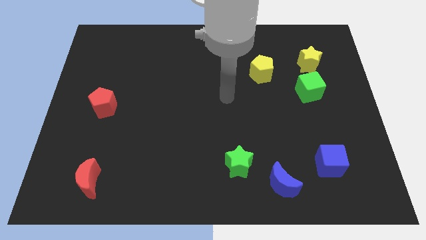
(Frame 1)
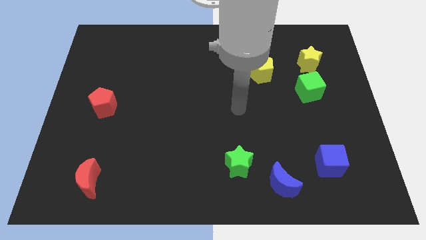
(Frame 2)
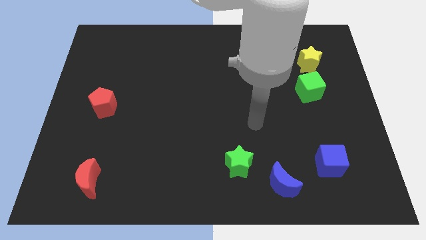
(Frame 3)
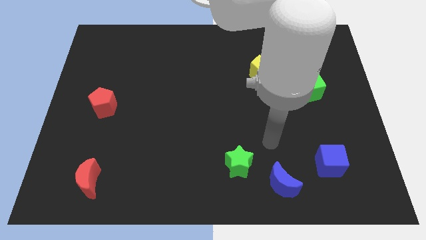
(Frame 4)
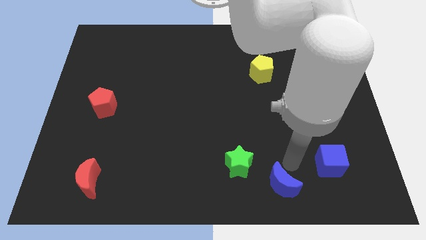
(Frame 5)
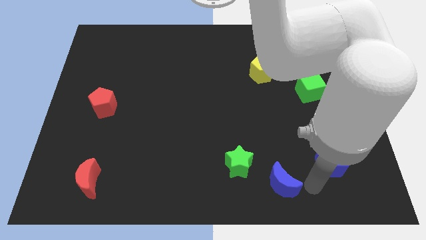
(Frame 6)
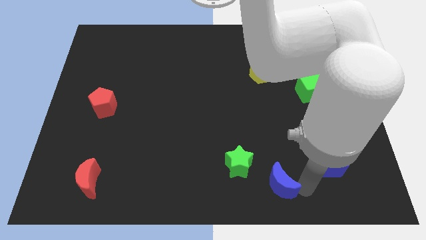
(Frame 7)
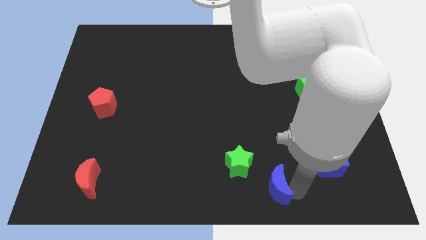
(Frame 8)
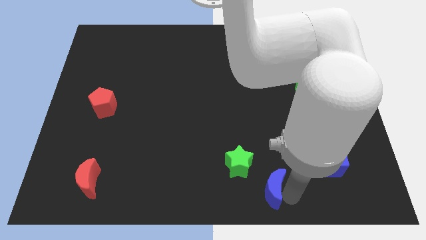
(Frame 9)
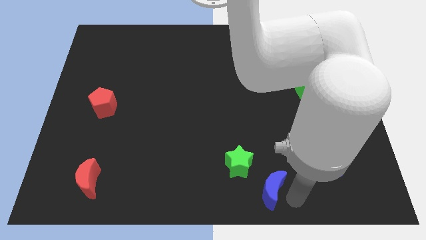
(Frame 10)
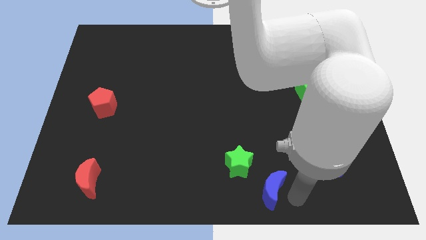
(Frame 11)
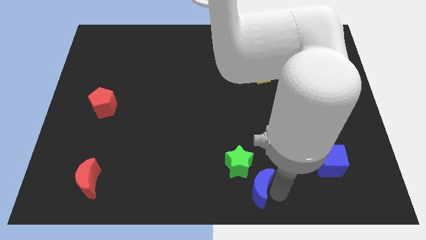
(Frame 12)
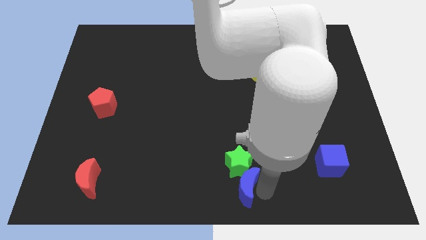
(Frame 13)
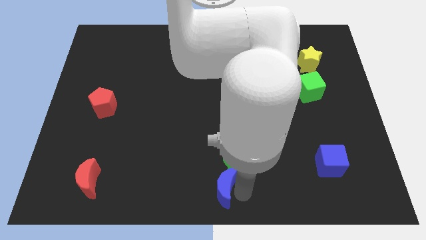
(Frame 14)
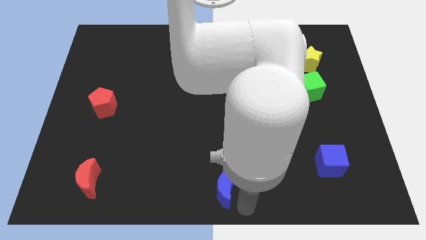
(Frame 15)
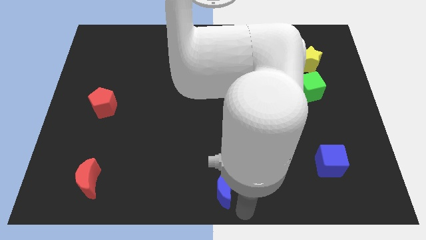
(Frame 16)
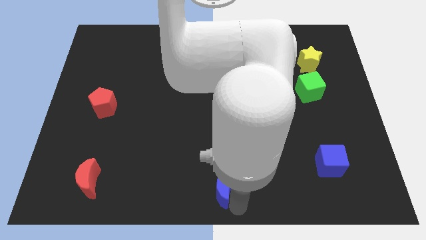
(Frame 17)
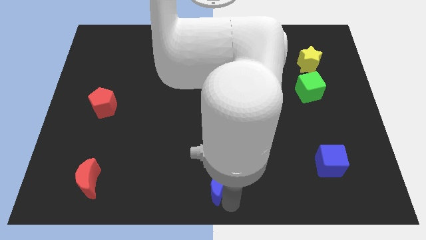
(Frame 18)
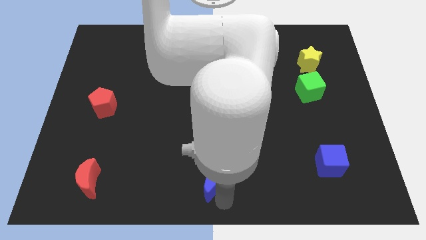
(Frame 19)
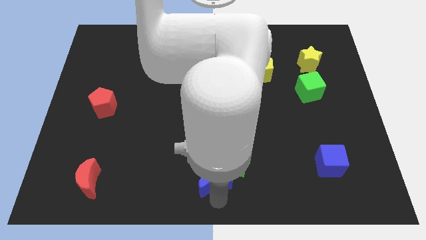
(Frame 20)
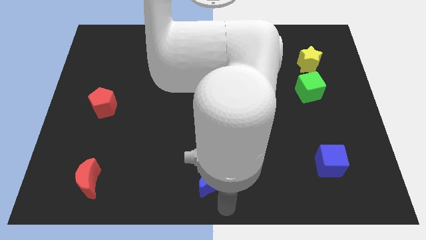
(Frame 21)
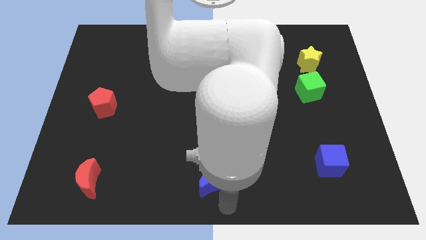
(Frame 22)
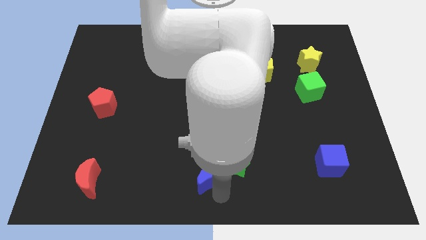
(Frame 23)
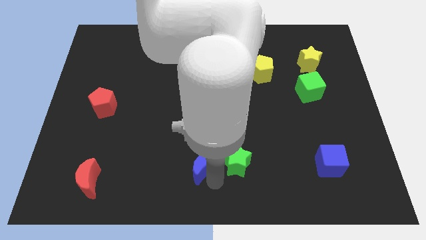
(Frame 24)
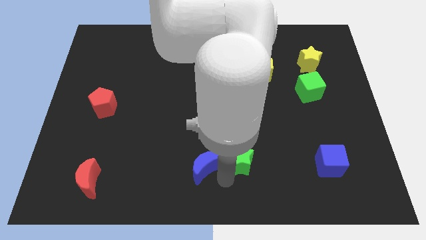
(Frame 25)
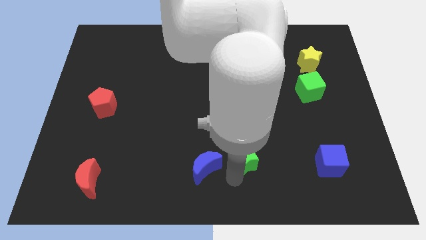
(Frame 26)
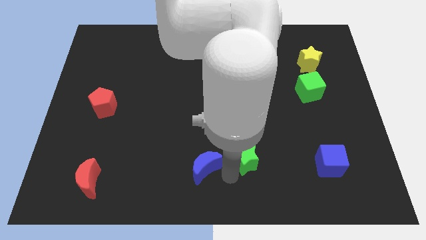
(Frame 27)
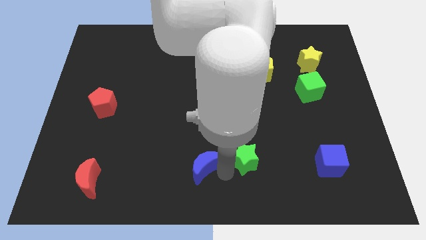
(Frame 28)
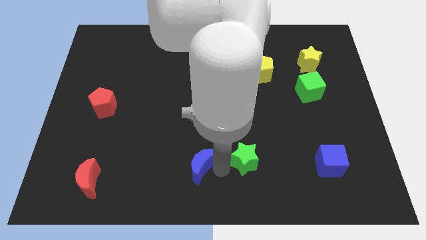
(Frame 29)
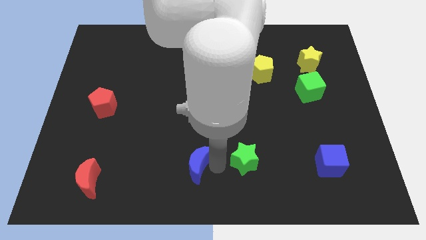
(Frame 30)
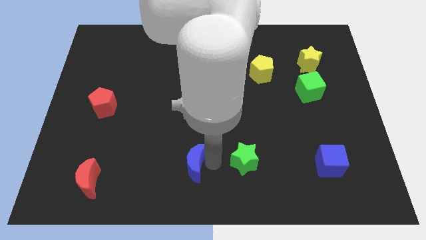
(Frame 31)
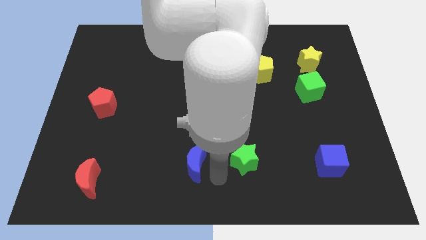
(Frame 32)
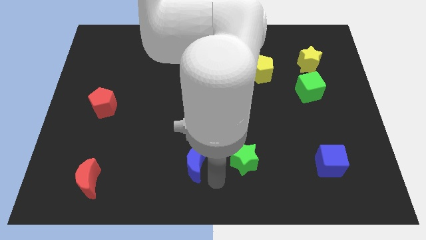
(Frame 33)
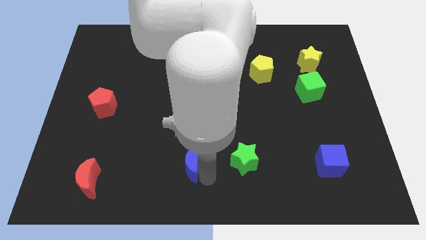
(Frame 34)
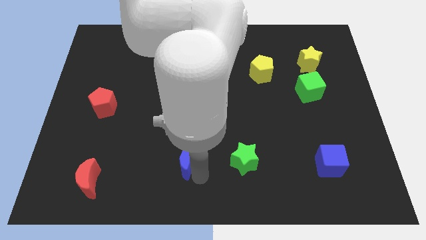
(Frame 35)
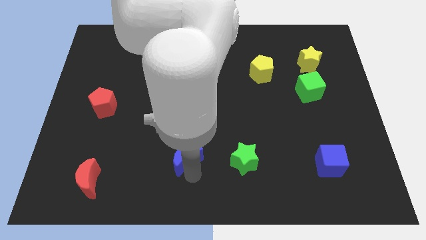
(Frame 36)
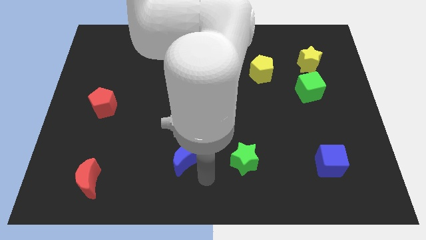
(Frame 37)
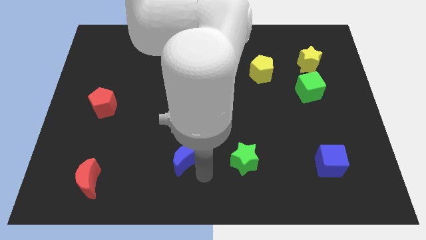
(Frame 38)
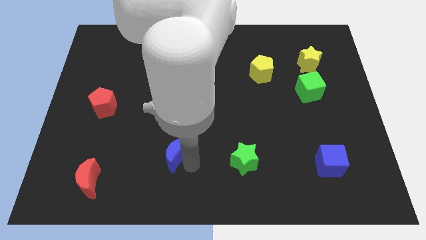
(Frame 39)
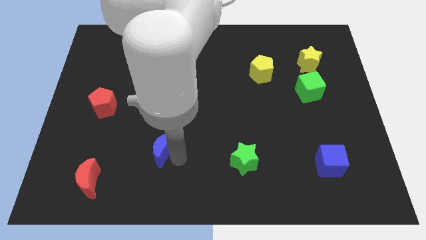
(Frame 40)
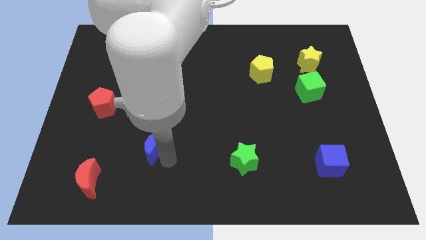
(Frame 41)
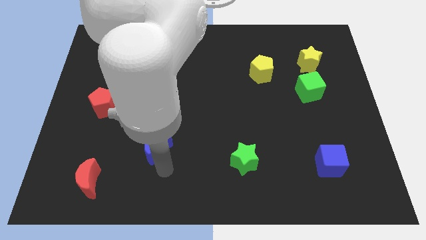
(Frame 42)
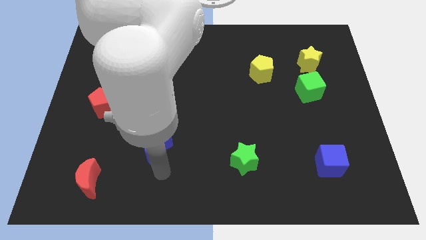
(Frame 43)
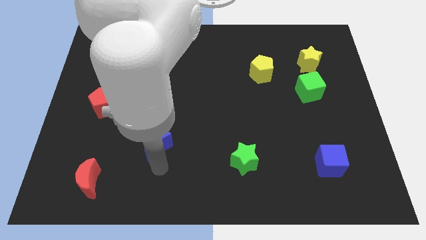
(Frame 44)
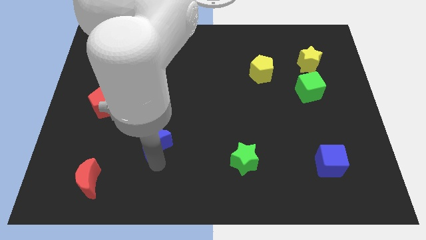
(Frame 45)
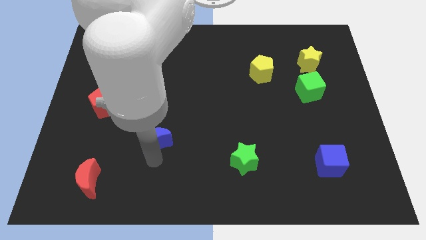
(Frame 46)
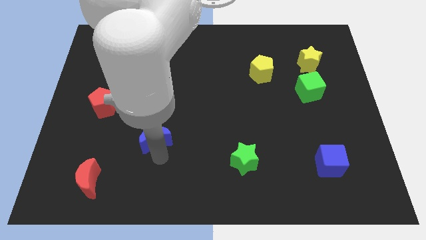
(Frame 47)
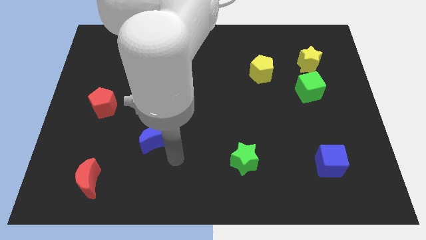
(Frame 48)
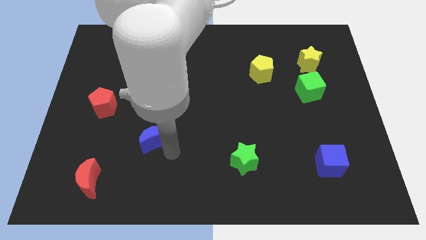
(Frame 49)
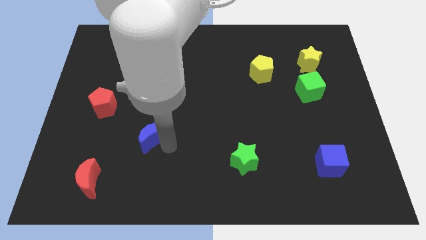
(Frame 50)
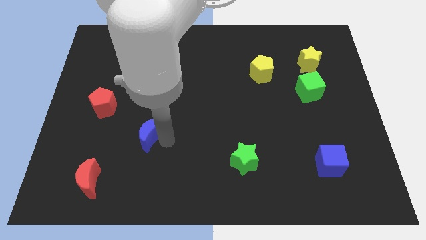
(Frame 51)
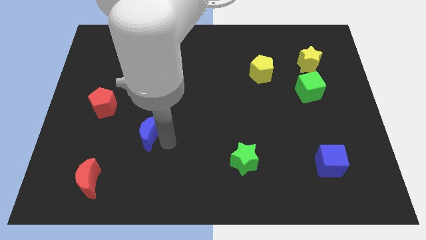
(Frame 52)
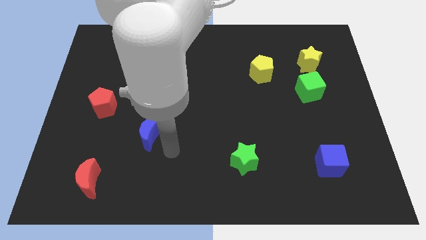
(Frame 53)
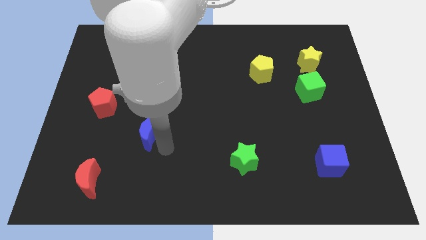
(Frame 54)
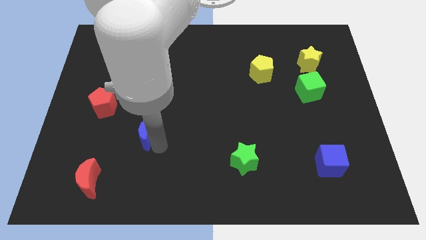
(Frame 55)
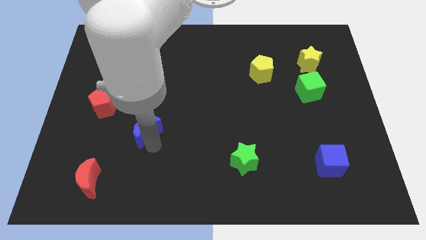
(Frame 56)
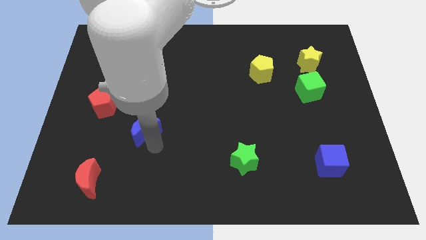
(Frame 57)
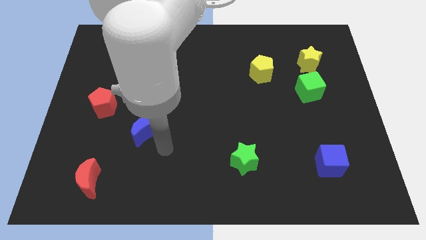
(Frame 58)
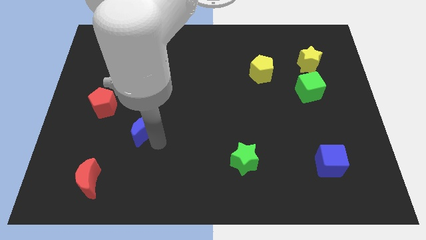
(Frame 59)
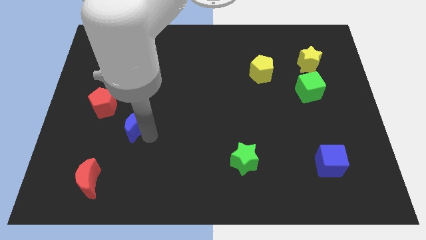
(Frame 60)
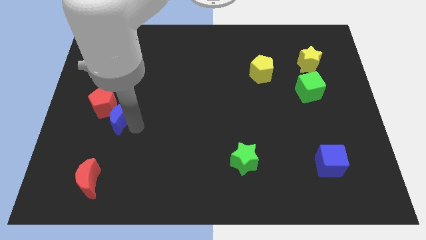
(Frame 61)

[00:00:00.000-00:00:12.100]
slide the blue moon close to the red pentagon

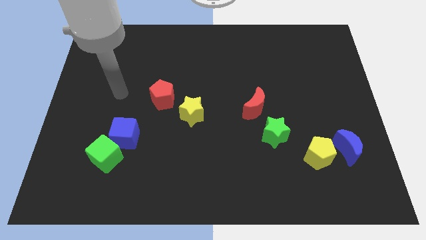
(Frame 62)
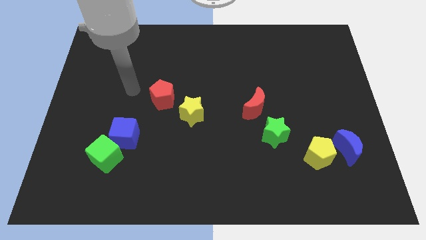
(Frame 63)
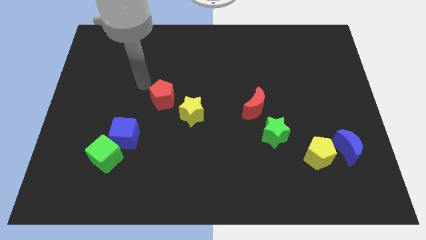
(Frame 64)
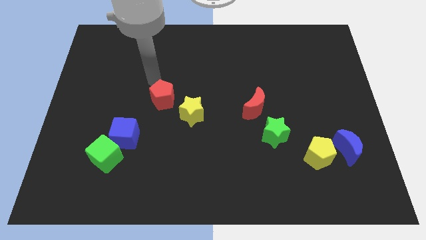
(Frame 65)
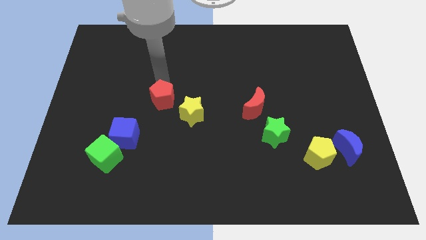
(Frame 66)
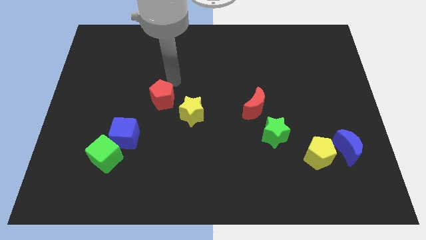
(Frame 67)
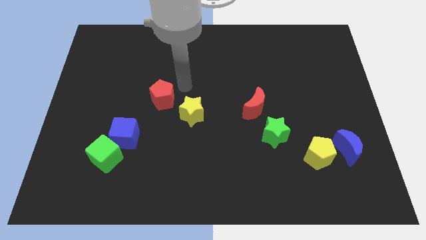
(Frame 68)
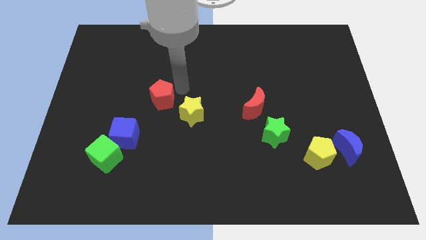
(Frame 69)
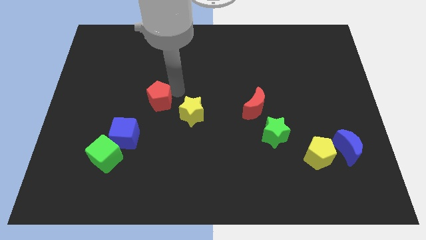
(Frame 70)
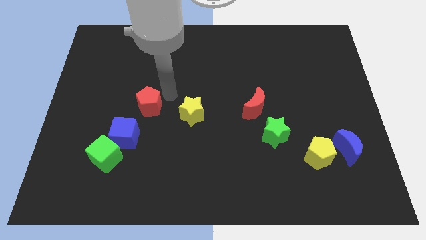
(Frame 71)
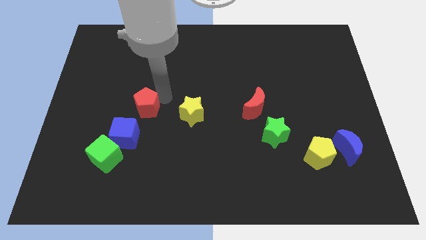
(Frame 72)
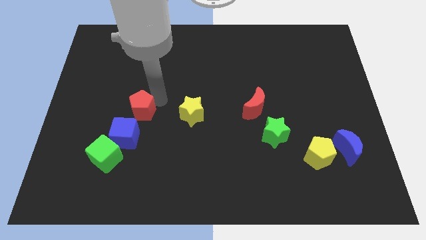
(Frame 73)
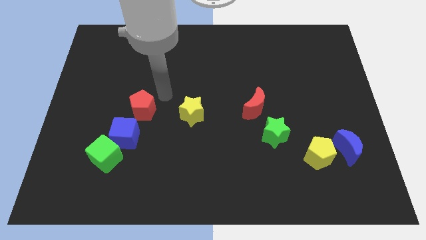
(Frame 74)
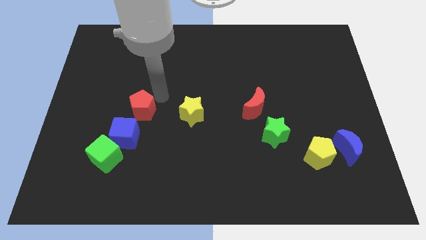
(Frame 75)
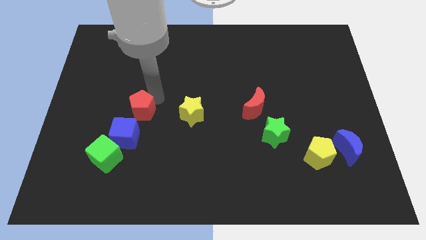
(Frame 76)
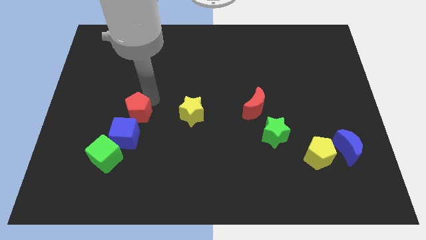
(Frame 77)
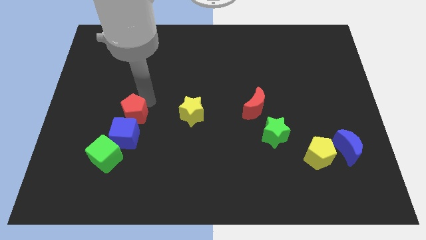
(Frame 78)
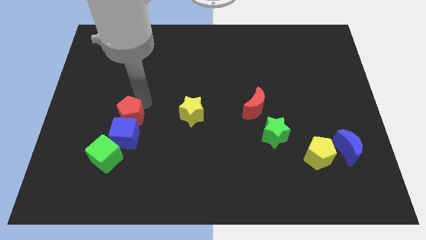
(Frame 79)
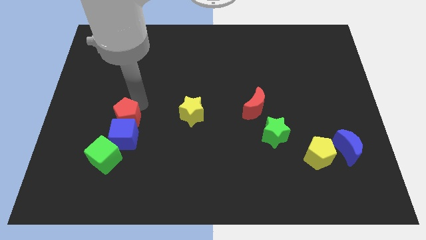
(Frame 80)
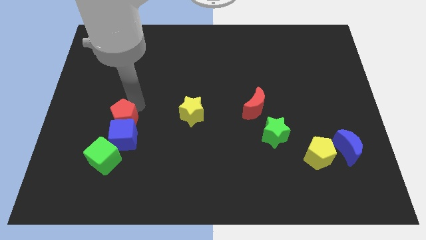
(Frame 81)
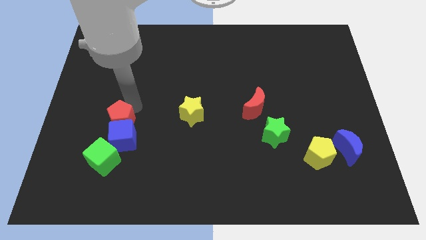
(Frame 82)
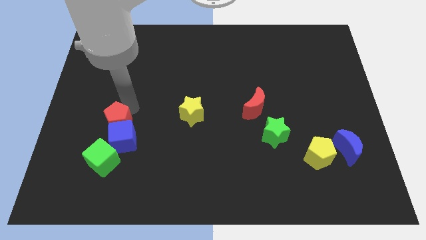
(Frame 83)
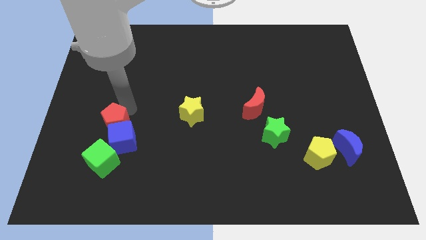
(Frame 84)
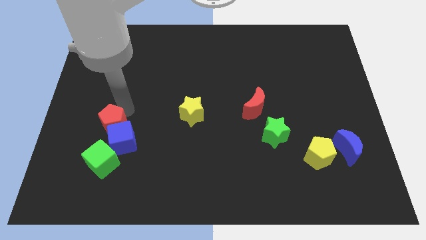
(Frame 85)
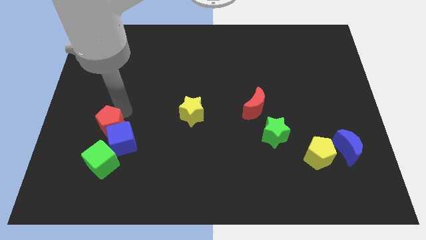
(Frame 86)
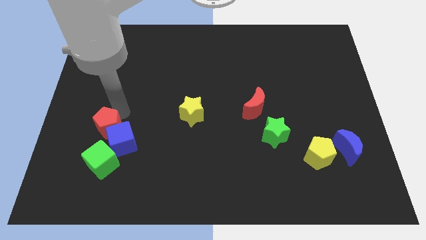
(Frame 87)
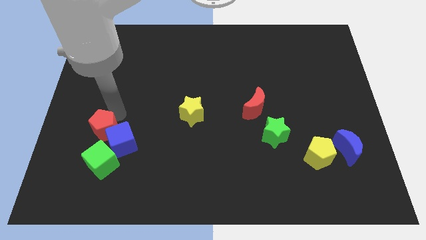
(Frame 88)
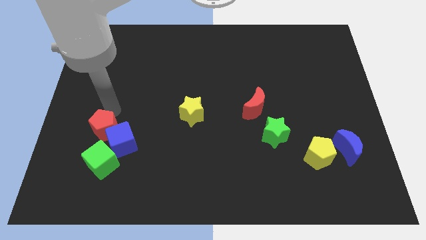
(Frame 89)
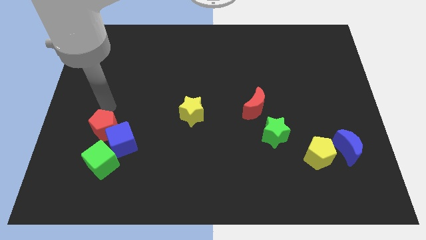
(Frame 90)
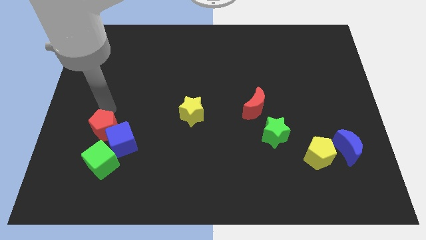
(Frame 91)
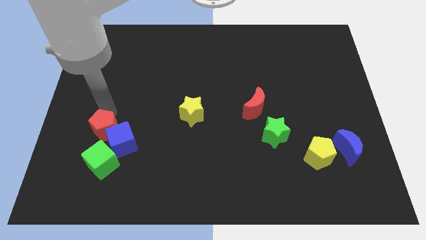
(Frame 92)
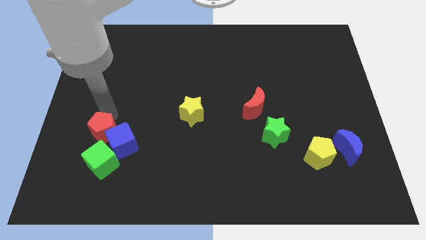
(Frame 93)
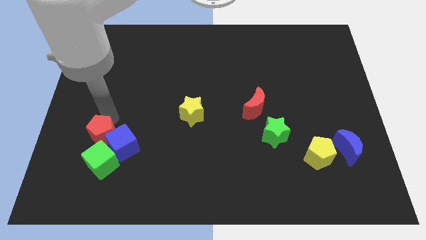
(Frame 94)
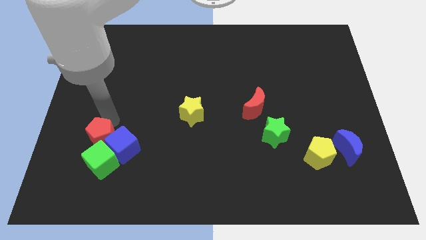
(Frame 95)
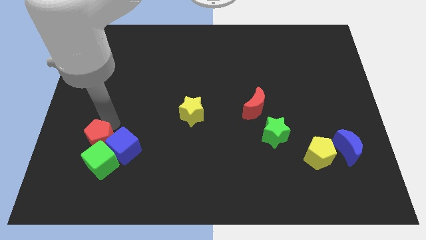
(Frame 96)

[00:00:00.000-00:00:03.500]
put the red pentagon next to the green cube
